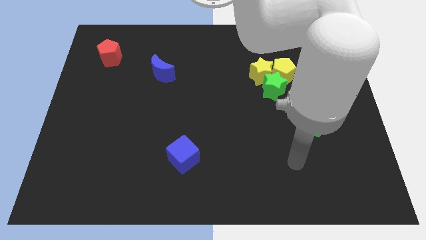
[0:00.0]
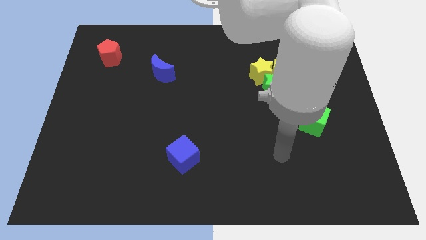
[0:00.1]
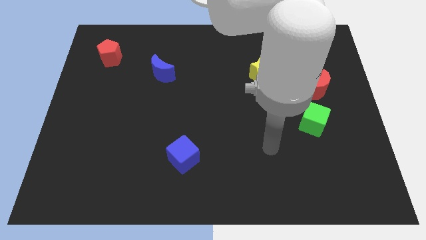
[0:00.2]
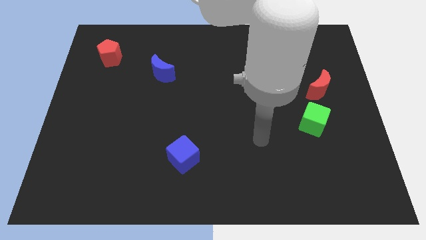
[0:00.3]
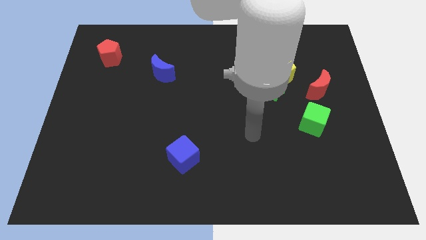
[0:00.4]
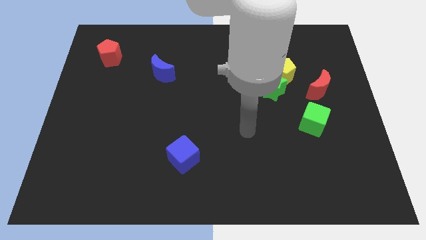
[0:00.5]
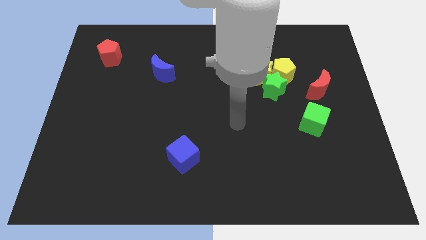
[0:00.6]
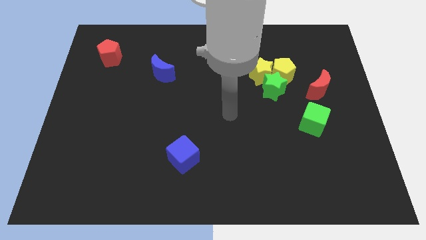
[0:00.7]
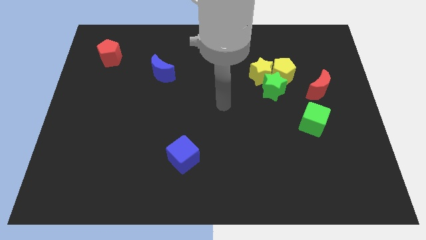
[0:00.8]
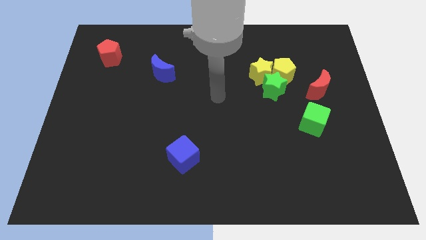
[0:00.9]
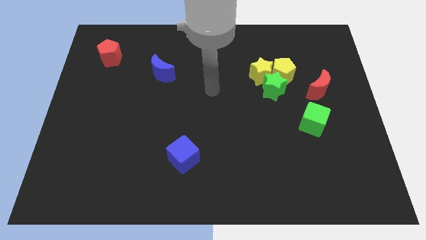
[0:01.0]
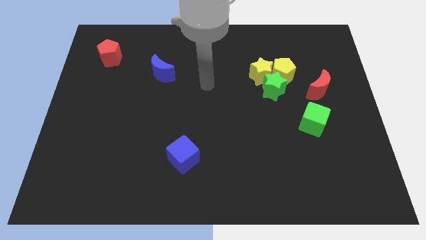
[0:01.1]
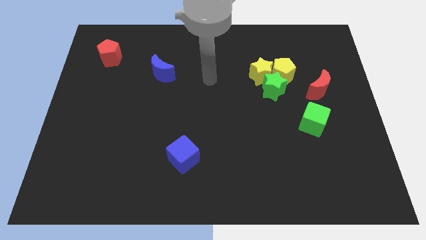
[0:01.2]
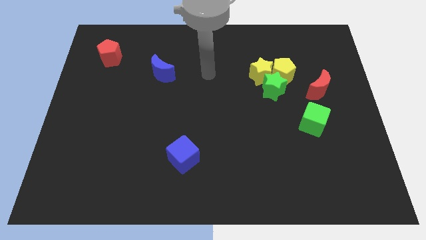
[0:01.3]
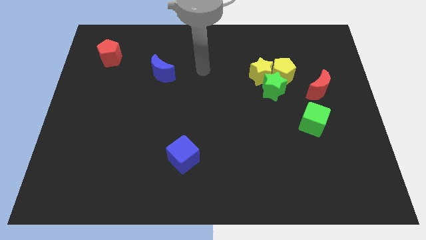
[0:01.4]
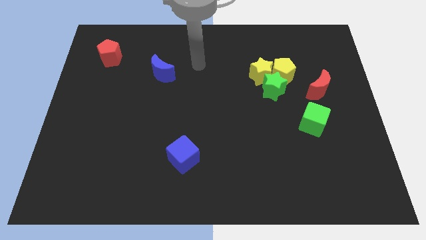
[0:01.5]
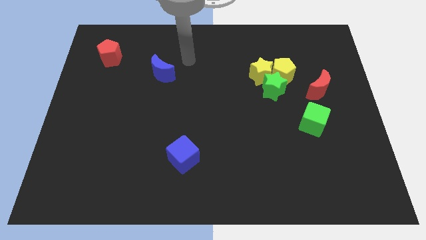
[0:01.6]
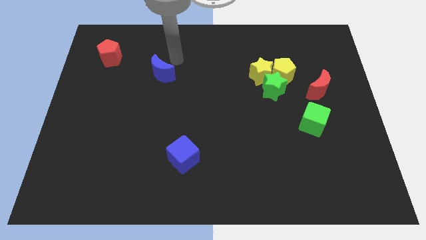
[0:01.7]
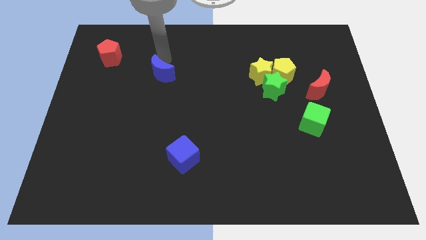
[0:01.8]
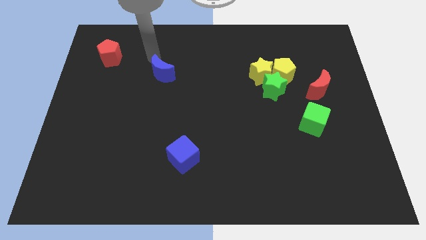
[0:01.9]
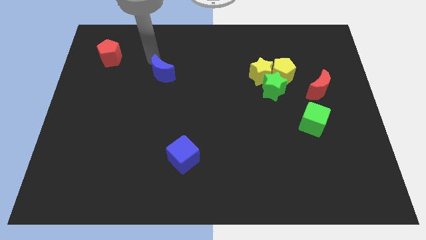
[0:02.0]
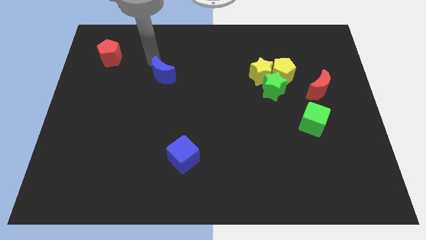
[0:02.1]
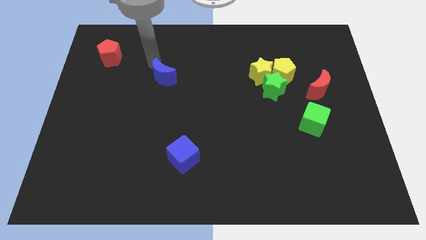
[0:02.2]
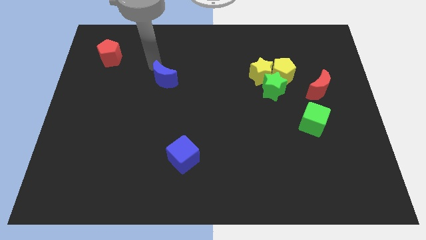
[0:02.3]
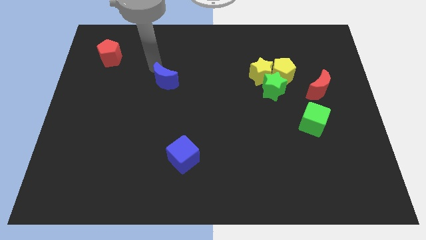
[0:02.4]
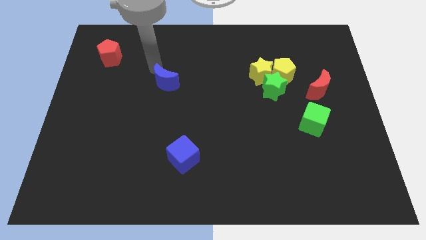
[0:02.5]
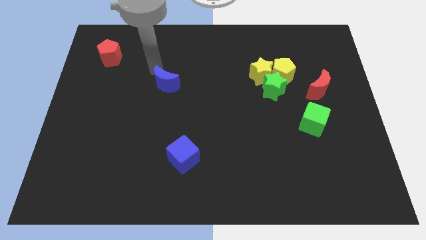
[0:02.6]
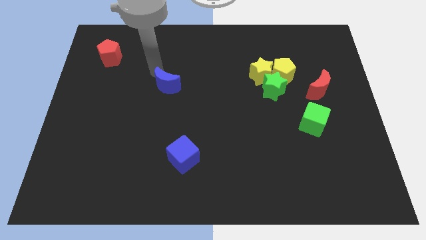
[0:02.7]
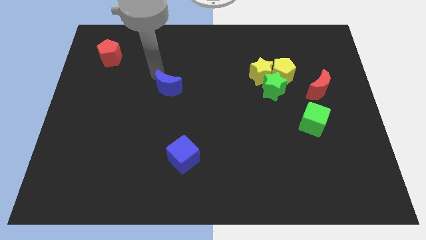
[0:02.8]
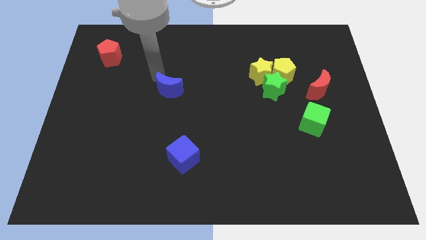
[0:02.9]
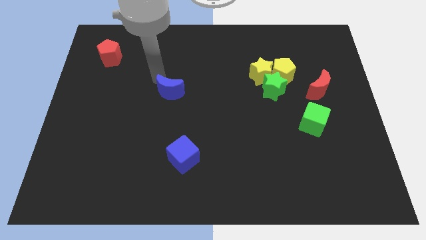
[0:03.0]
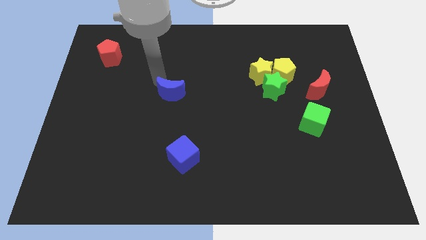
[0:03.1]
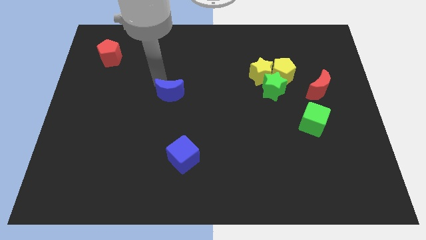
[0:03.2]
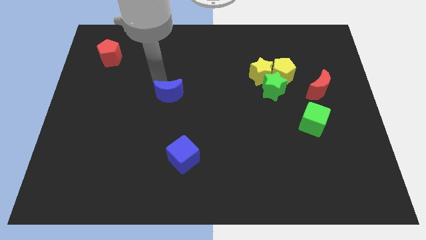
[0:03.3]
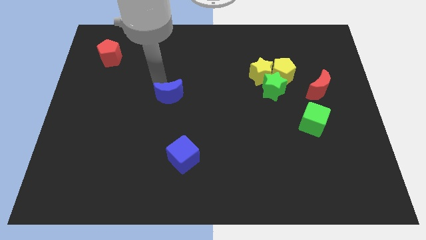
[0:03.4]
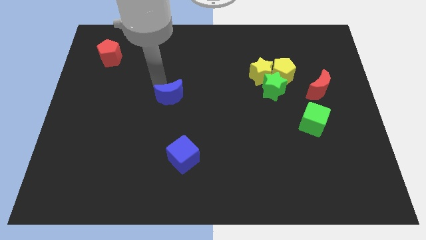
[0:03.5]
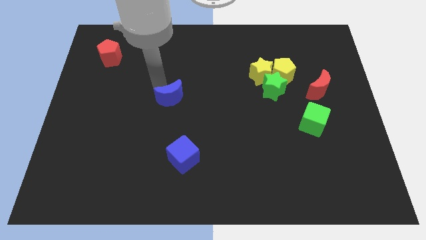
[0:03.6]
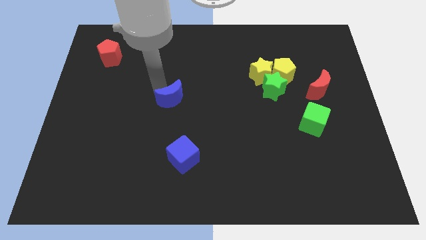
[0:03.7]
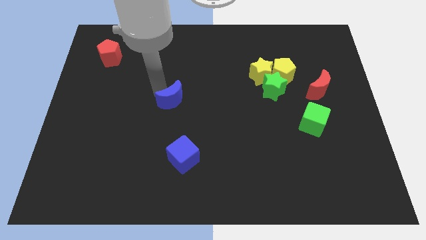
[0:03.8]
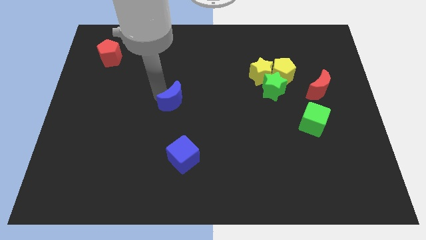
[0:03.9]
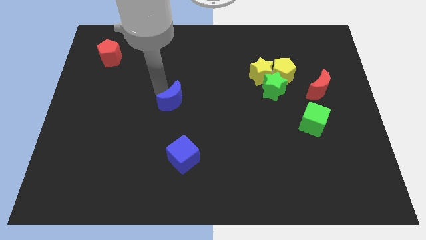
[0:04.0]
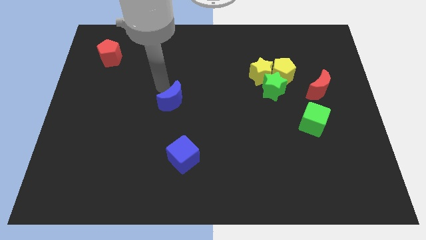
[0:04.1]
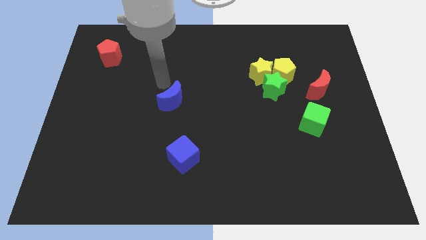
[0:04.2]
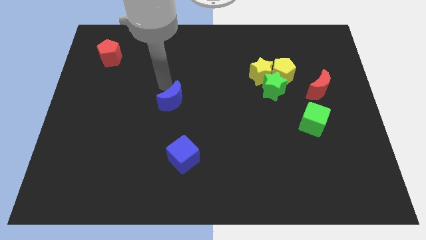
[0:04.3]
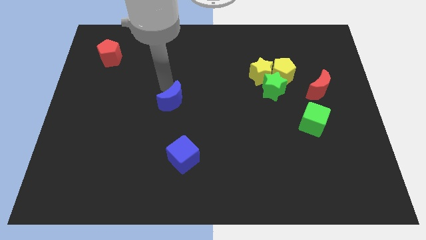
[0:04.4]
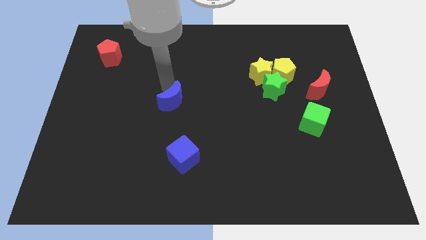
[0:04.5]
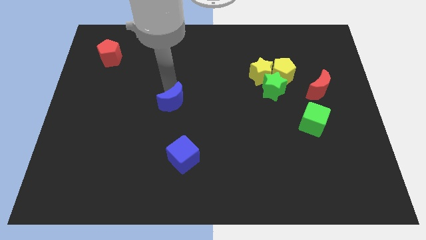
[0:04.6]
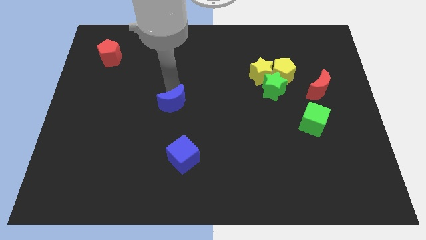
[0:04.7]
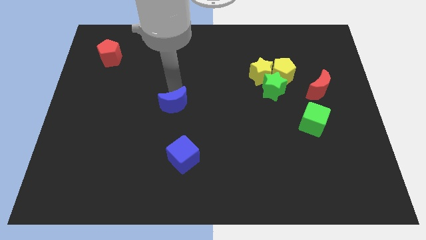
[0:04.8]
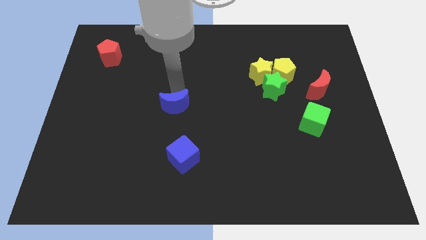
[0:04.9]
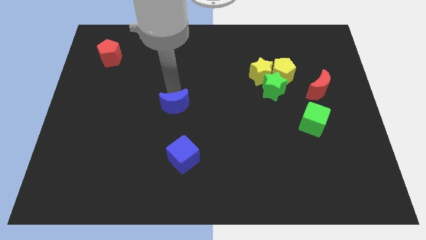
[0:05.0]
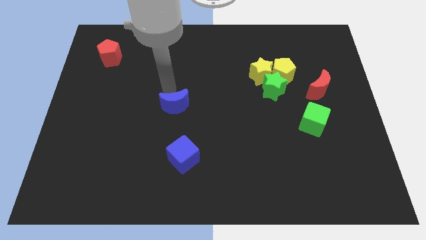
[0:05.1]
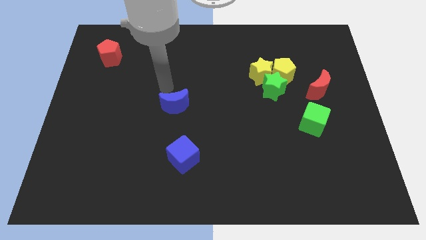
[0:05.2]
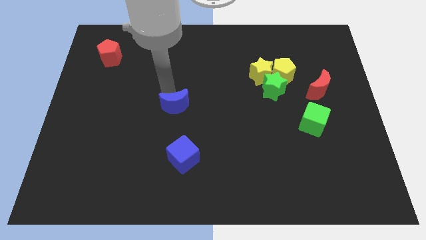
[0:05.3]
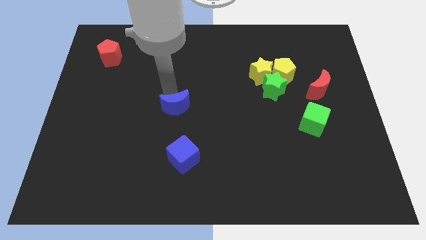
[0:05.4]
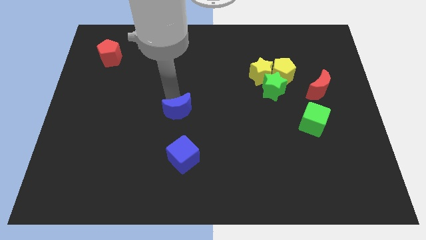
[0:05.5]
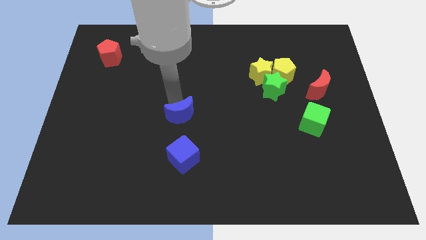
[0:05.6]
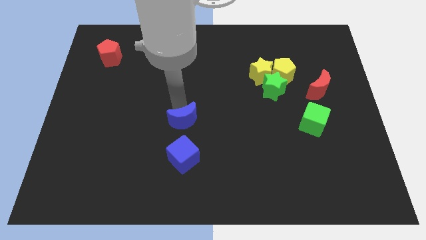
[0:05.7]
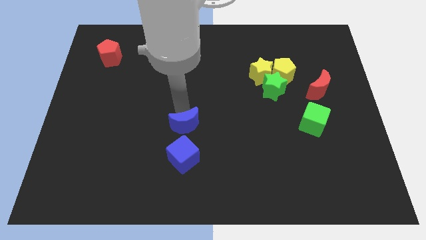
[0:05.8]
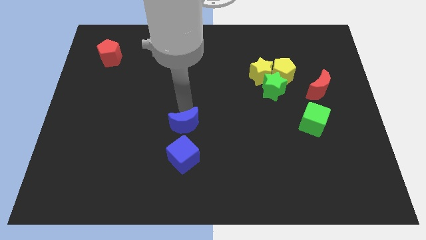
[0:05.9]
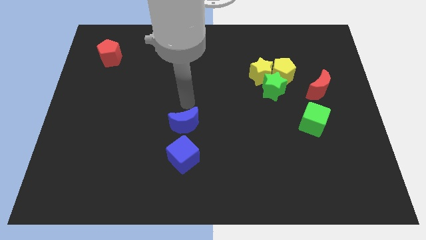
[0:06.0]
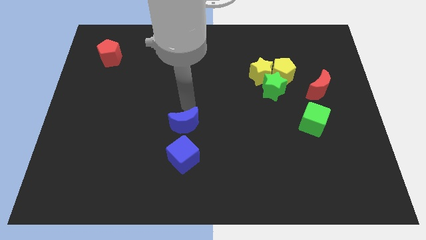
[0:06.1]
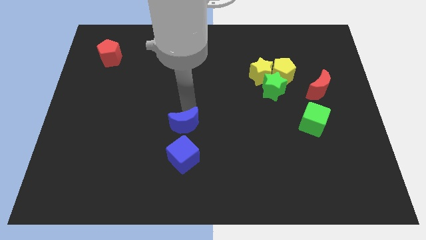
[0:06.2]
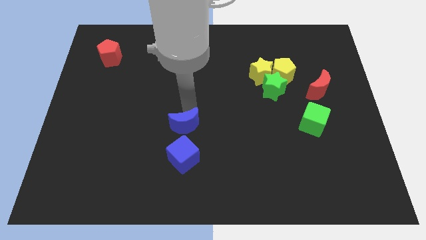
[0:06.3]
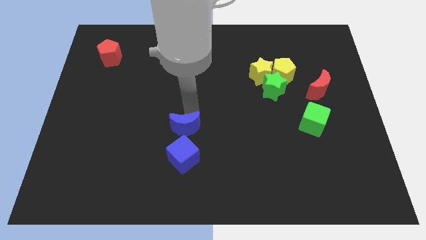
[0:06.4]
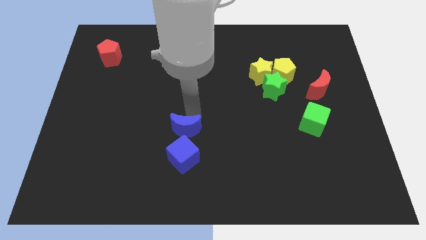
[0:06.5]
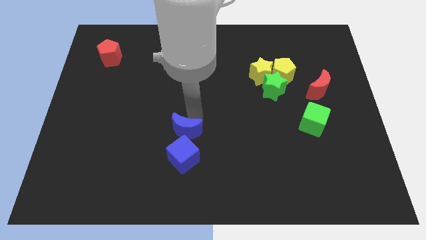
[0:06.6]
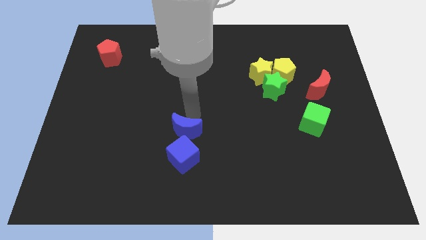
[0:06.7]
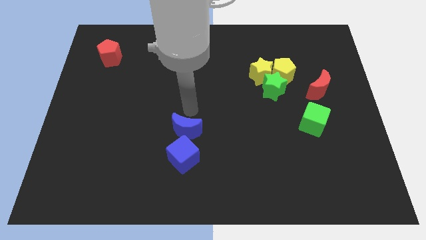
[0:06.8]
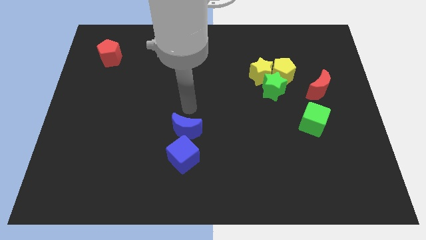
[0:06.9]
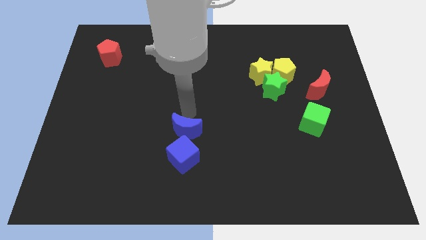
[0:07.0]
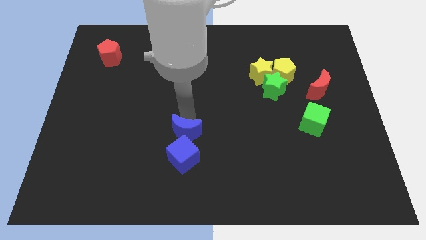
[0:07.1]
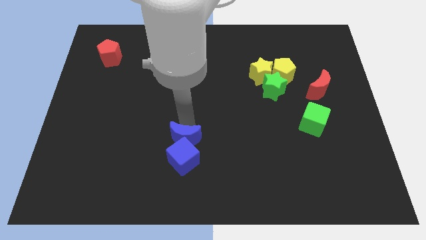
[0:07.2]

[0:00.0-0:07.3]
slide the blue moon next to the blue cube

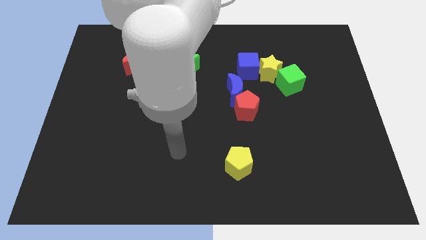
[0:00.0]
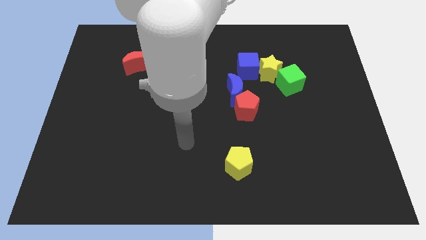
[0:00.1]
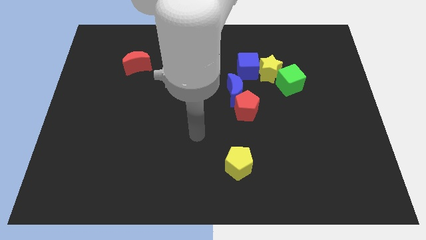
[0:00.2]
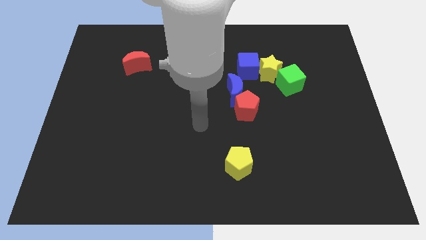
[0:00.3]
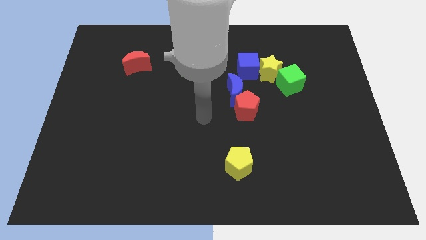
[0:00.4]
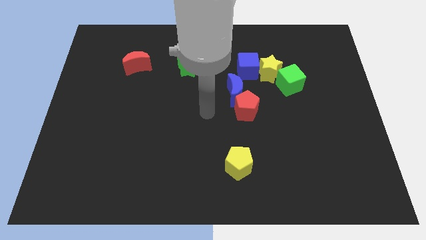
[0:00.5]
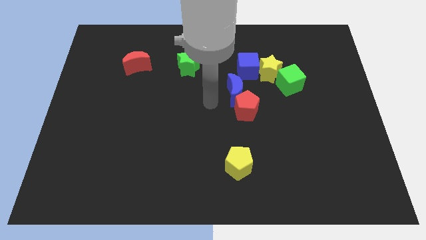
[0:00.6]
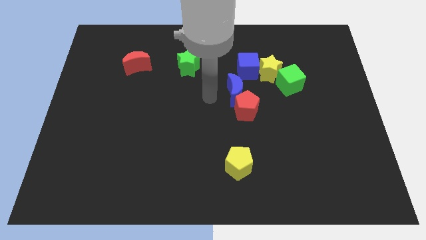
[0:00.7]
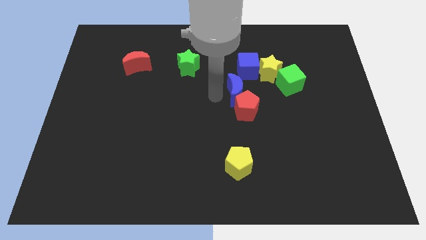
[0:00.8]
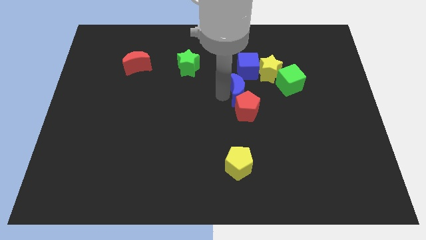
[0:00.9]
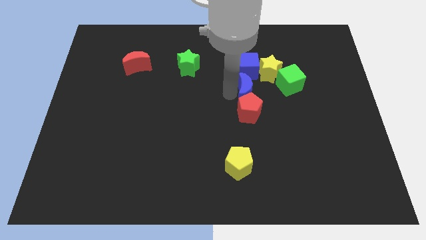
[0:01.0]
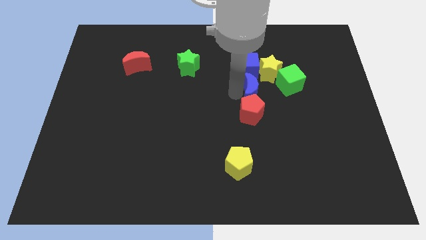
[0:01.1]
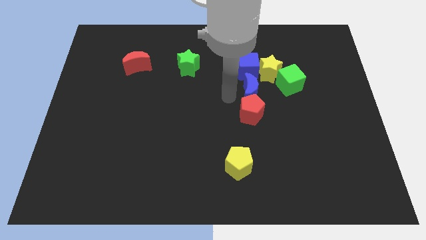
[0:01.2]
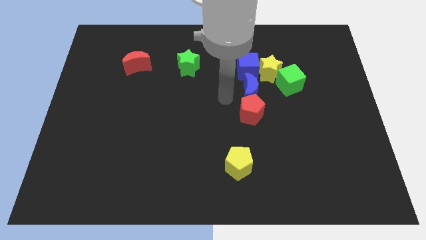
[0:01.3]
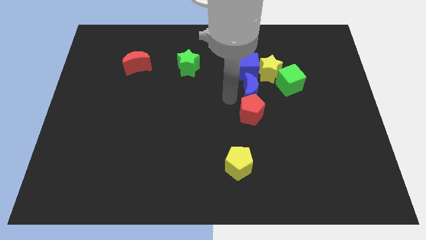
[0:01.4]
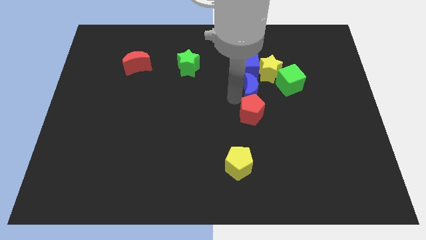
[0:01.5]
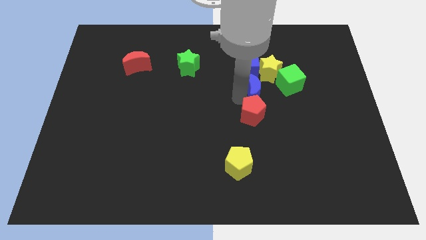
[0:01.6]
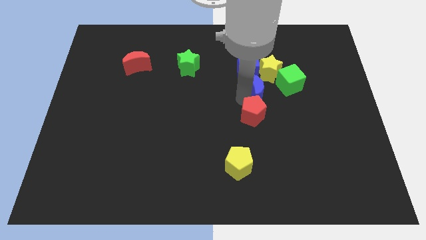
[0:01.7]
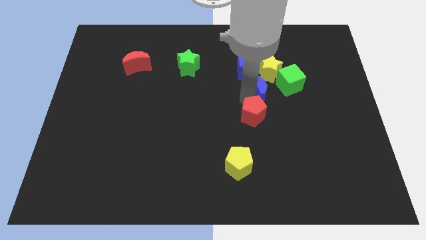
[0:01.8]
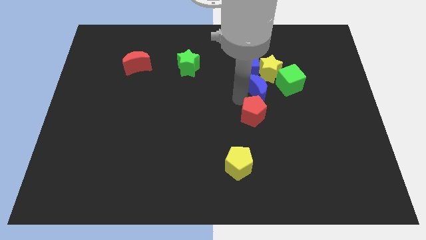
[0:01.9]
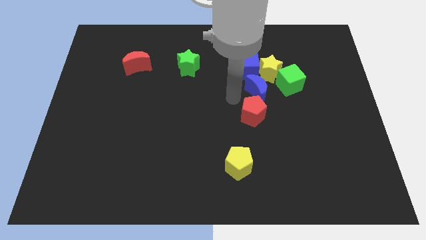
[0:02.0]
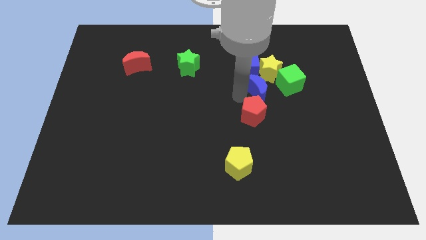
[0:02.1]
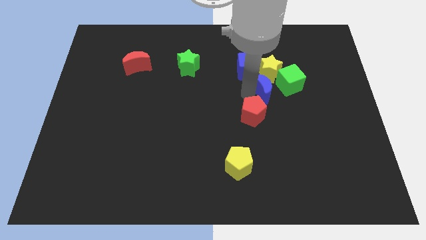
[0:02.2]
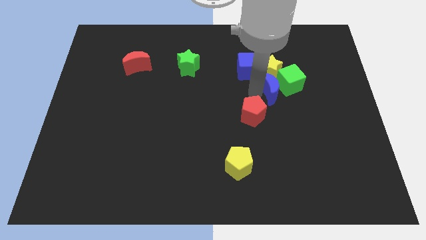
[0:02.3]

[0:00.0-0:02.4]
put the blue moon next to the green cube
